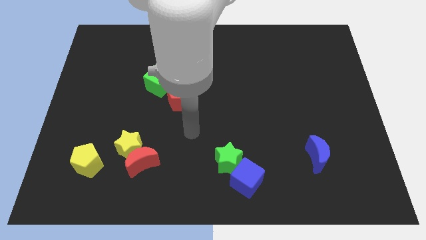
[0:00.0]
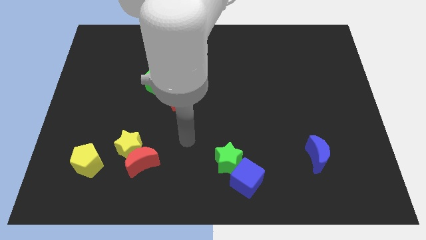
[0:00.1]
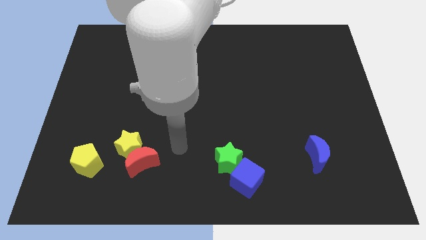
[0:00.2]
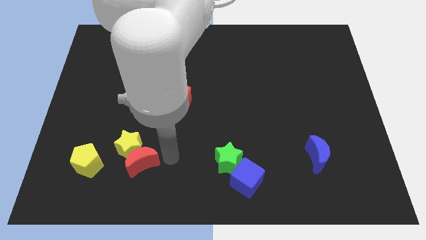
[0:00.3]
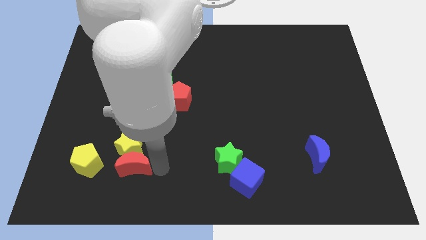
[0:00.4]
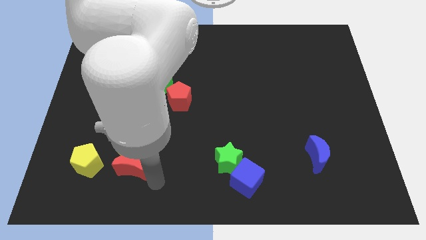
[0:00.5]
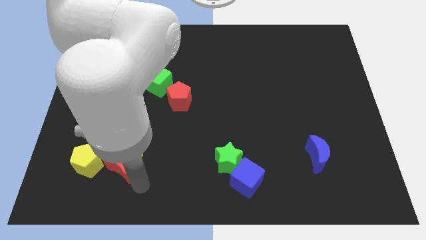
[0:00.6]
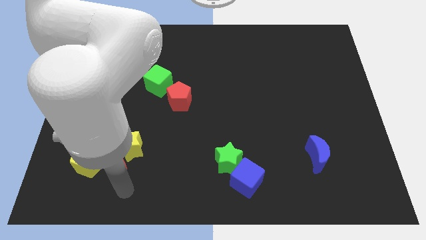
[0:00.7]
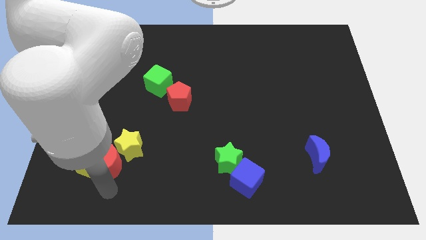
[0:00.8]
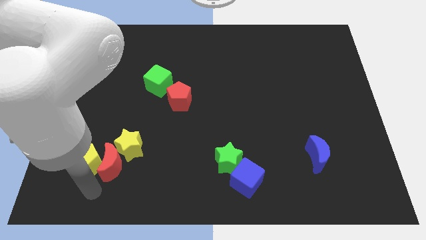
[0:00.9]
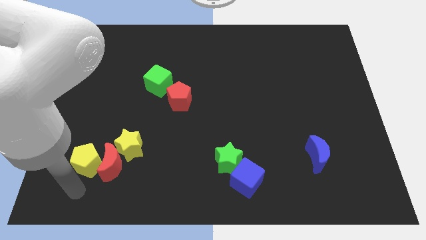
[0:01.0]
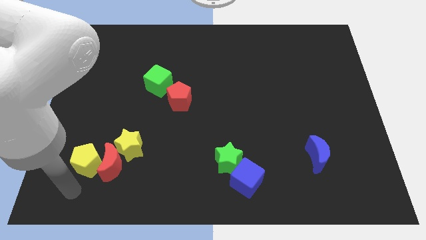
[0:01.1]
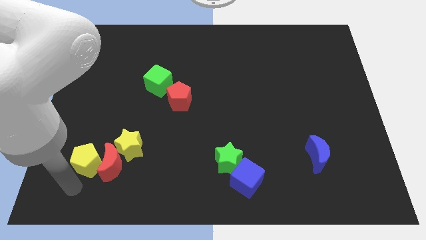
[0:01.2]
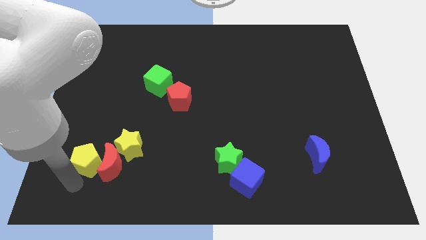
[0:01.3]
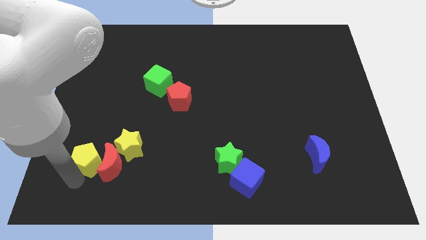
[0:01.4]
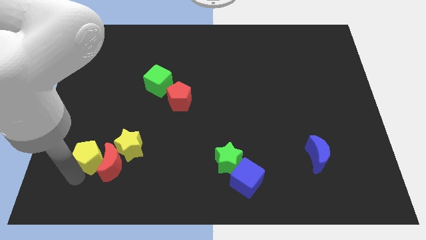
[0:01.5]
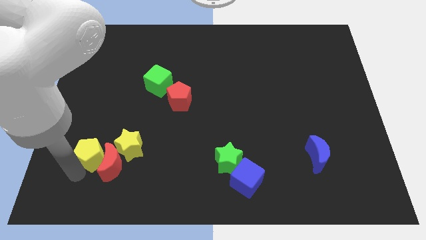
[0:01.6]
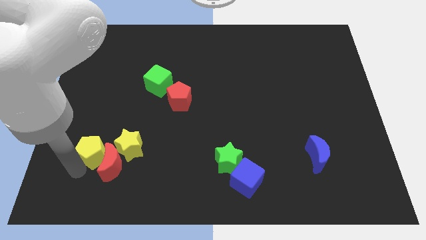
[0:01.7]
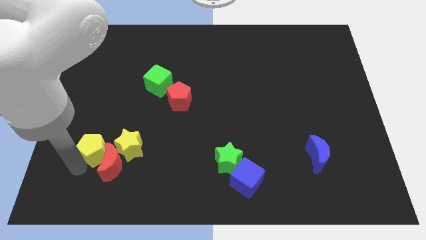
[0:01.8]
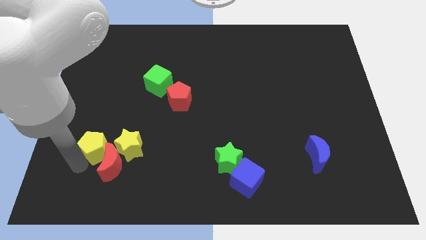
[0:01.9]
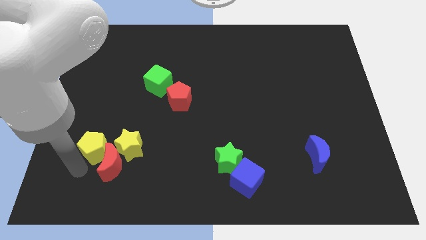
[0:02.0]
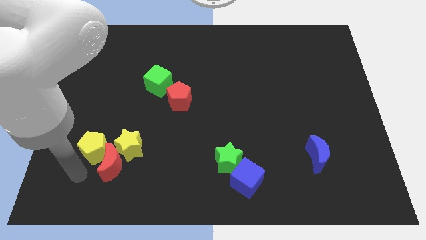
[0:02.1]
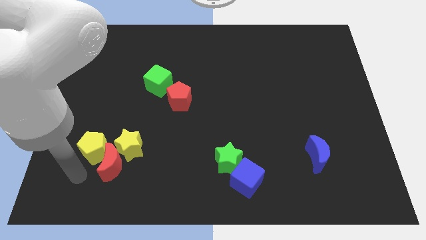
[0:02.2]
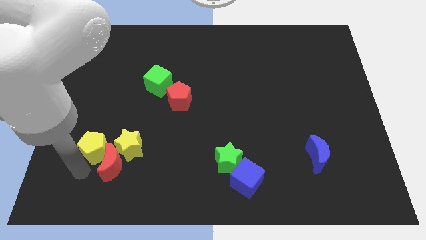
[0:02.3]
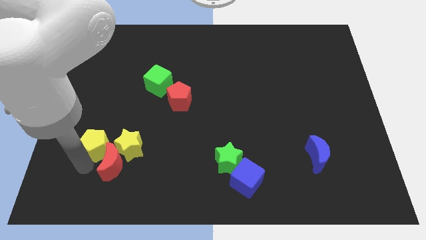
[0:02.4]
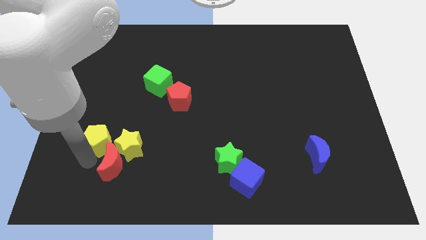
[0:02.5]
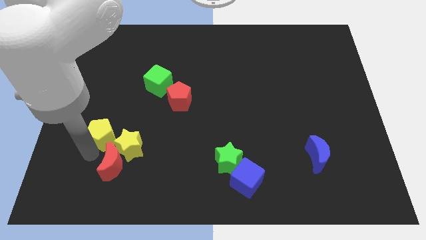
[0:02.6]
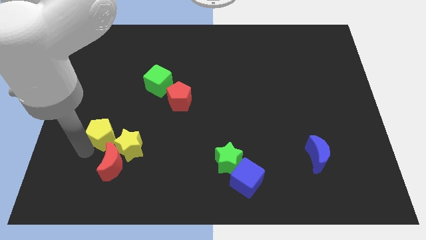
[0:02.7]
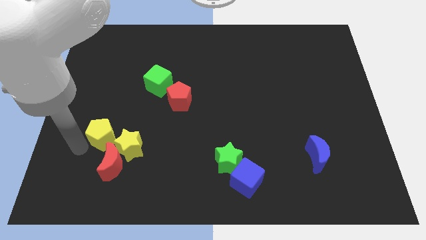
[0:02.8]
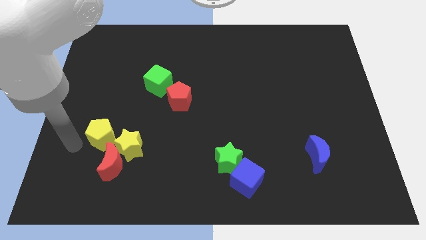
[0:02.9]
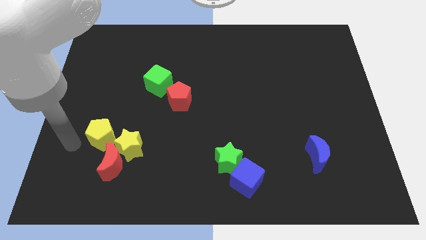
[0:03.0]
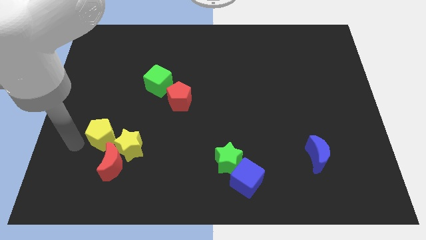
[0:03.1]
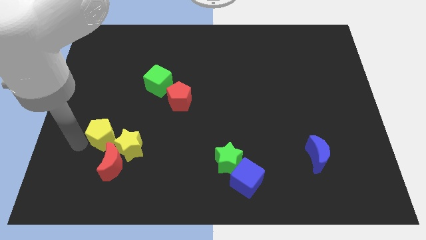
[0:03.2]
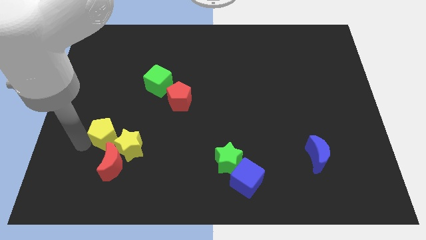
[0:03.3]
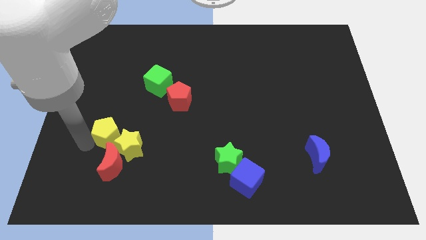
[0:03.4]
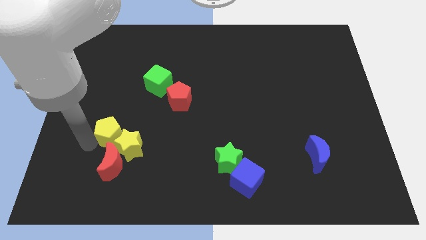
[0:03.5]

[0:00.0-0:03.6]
slightly move the yellow pentagon up and then right

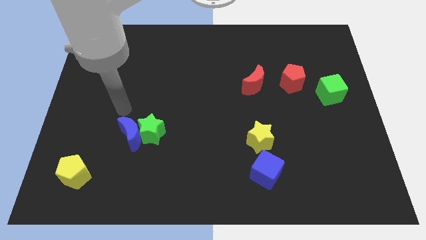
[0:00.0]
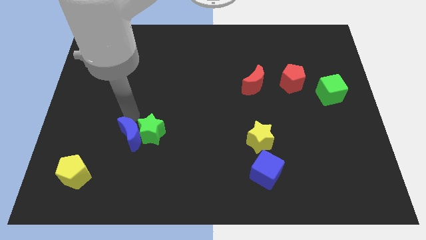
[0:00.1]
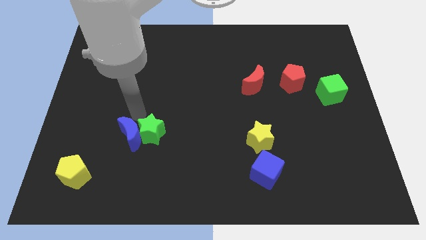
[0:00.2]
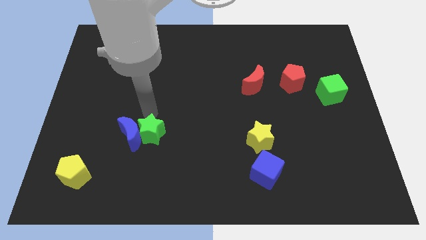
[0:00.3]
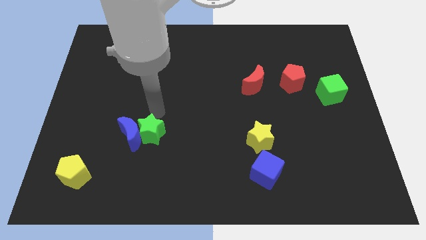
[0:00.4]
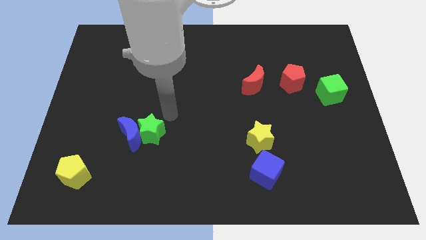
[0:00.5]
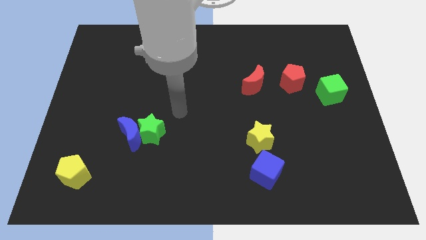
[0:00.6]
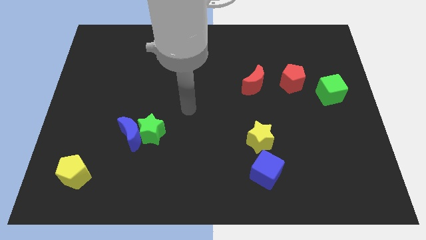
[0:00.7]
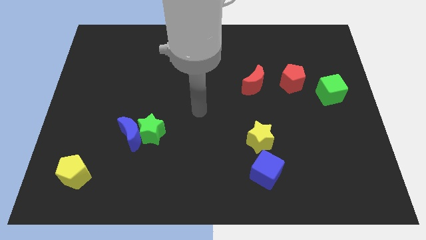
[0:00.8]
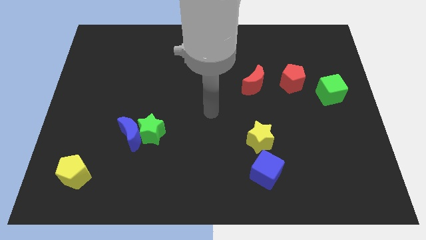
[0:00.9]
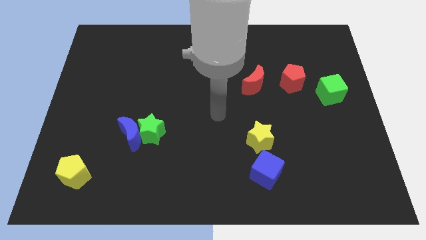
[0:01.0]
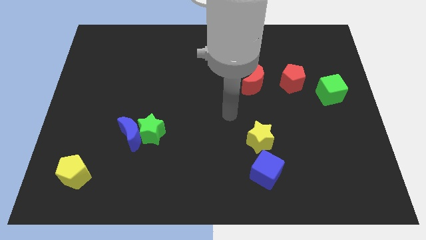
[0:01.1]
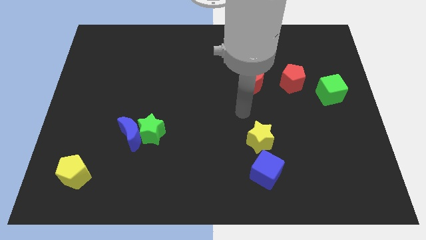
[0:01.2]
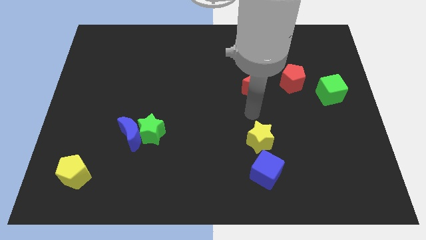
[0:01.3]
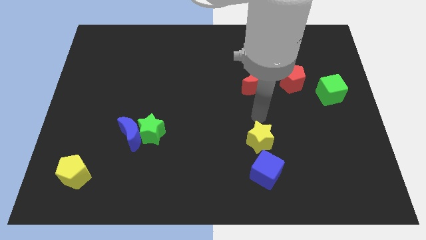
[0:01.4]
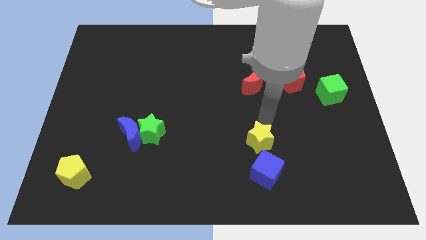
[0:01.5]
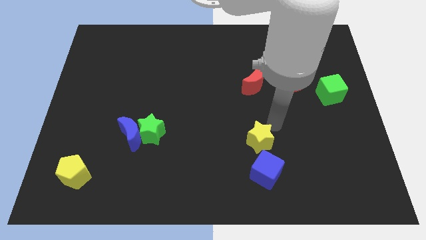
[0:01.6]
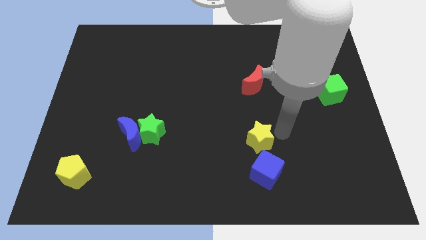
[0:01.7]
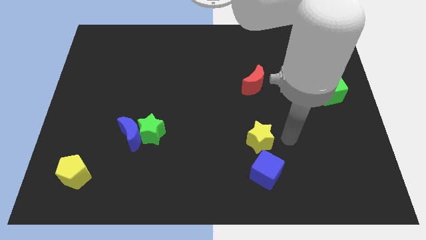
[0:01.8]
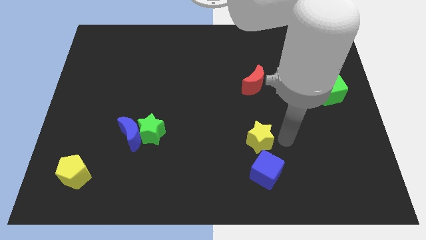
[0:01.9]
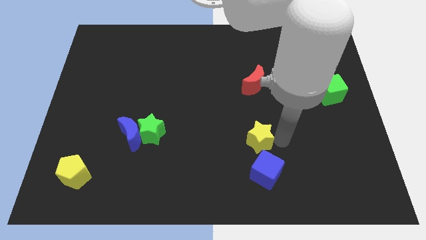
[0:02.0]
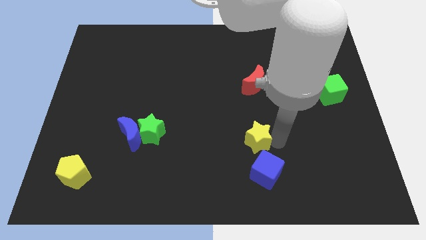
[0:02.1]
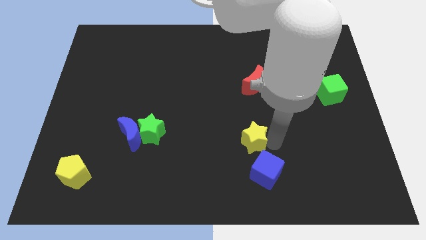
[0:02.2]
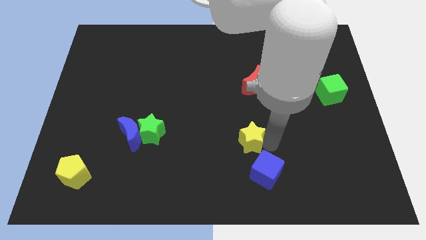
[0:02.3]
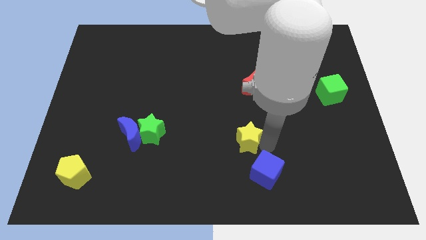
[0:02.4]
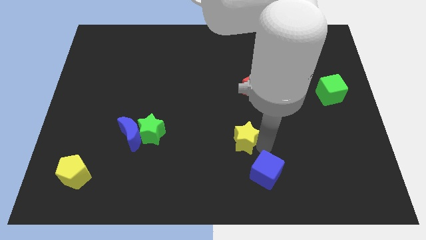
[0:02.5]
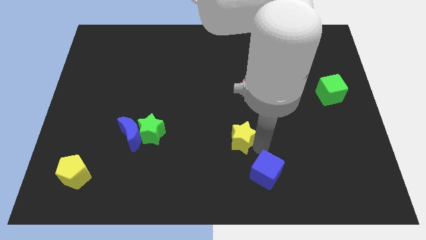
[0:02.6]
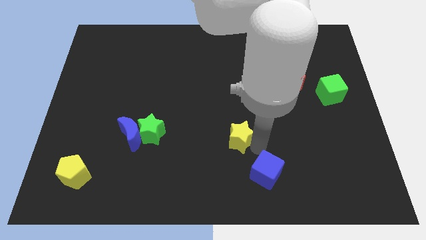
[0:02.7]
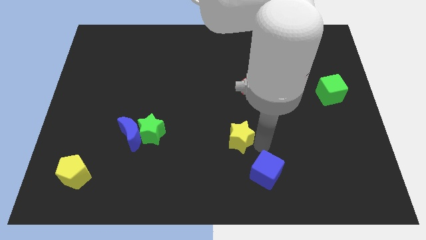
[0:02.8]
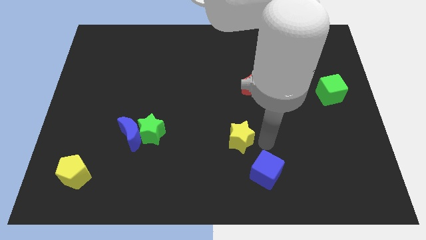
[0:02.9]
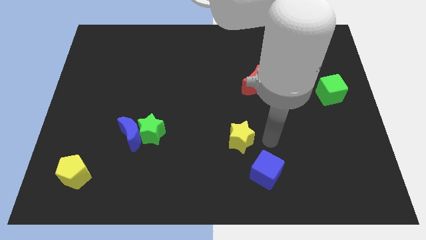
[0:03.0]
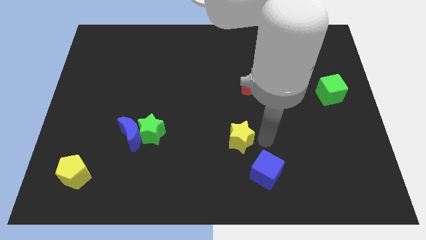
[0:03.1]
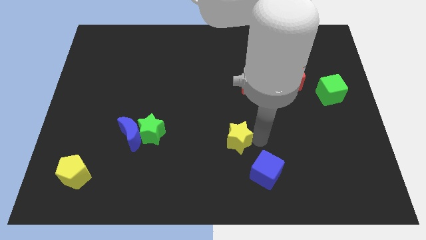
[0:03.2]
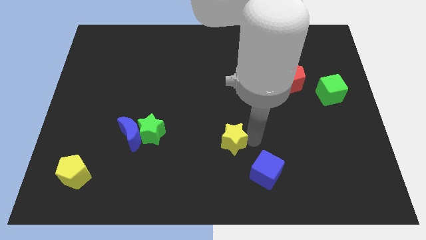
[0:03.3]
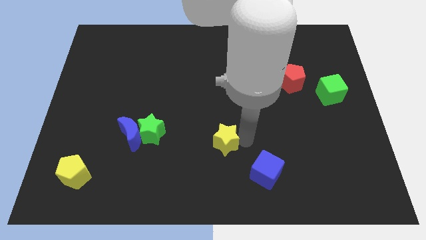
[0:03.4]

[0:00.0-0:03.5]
push the yellow star left a bit

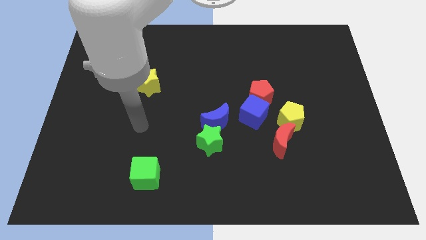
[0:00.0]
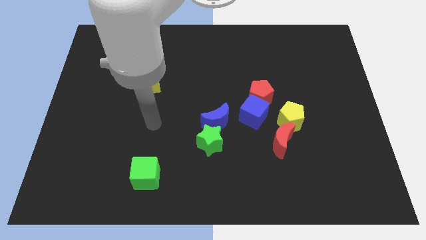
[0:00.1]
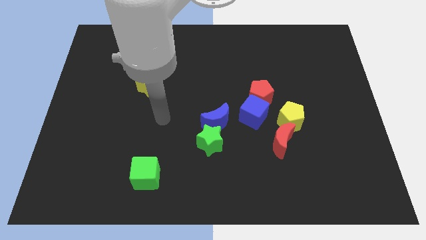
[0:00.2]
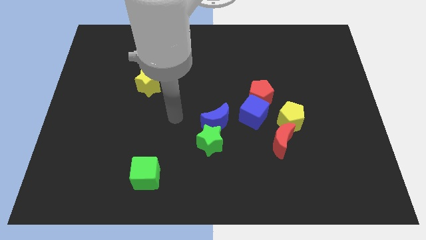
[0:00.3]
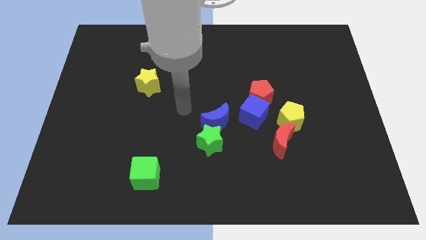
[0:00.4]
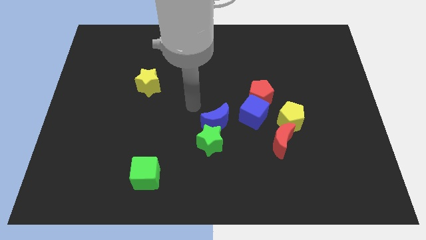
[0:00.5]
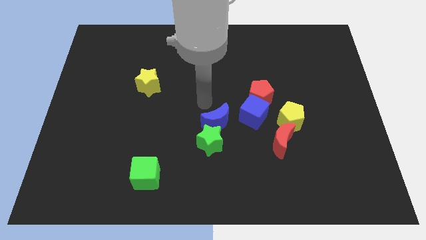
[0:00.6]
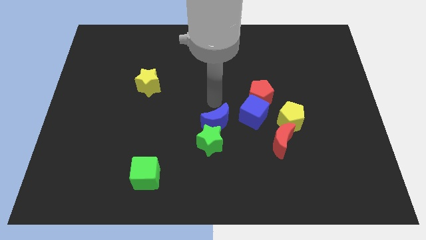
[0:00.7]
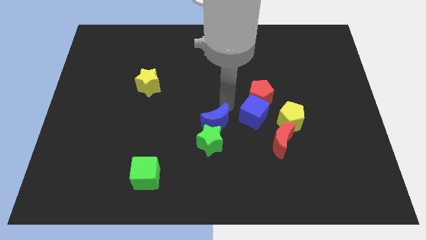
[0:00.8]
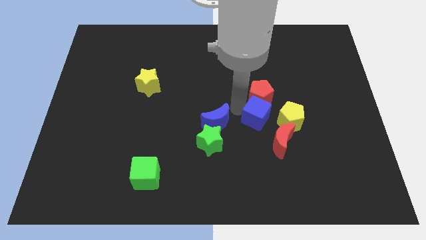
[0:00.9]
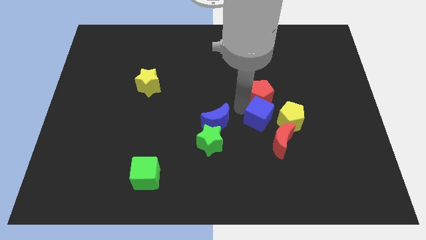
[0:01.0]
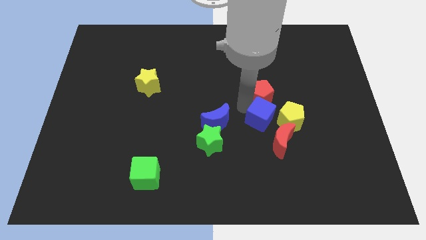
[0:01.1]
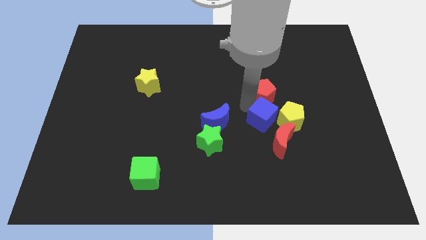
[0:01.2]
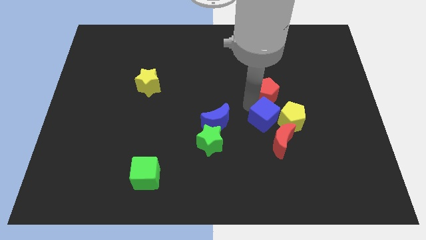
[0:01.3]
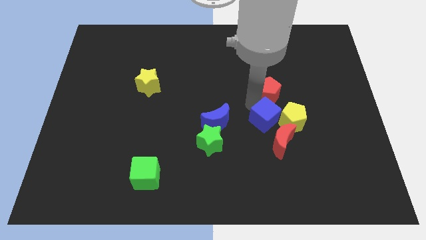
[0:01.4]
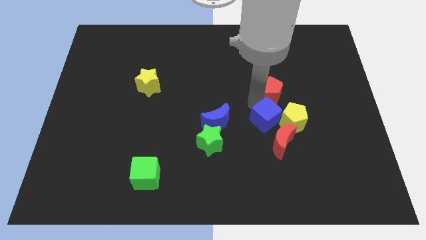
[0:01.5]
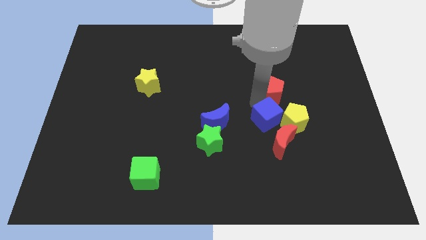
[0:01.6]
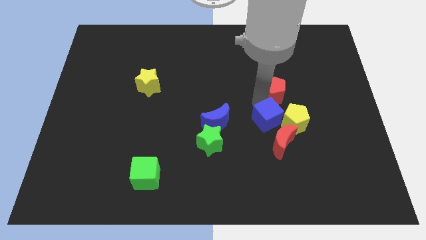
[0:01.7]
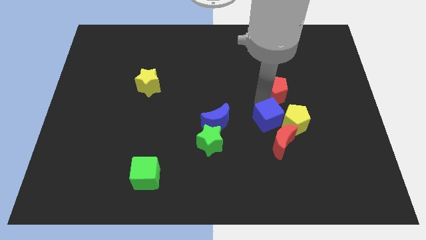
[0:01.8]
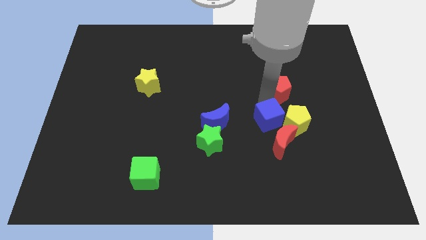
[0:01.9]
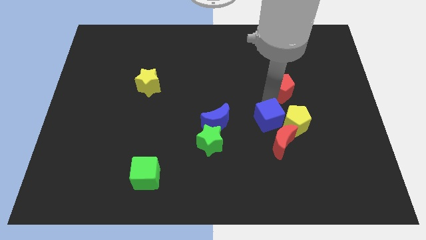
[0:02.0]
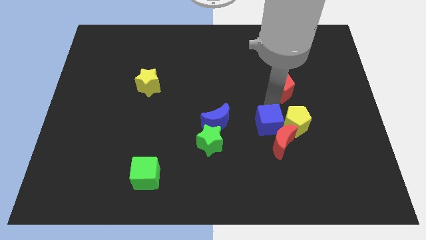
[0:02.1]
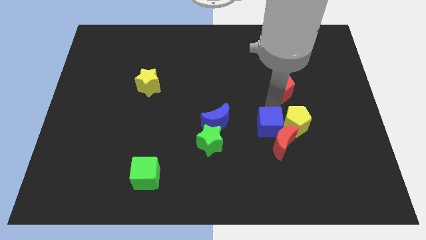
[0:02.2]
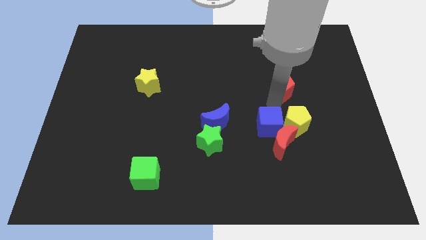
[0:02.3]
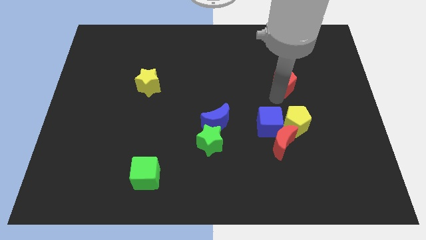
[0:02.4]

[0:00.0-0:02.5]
push the red pentagon up and right diagonally a little
